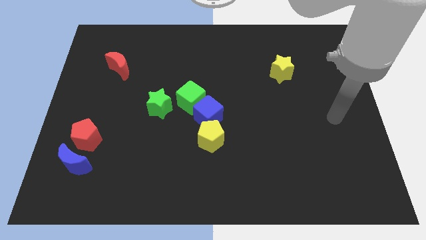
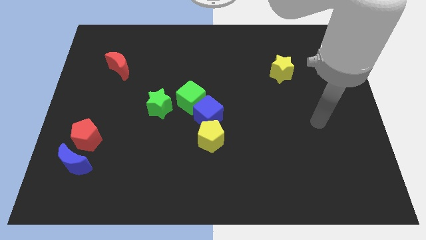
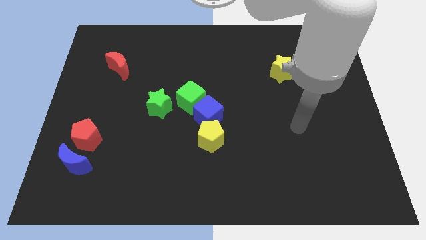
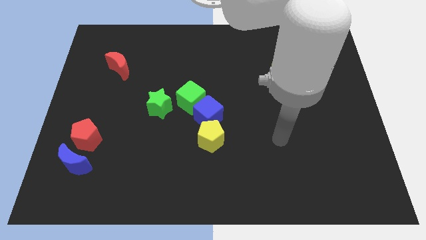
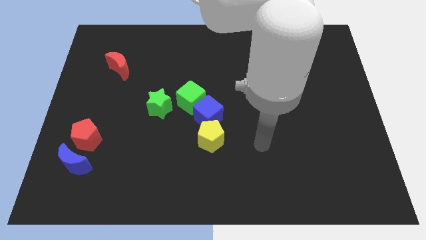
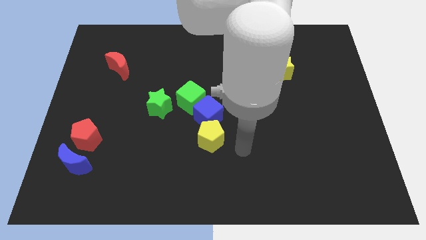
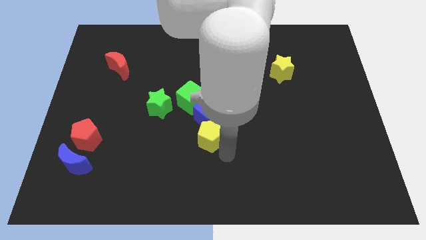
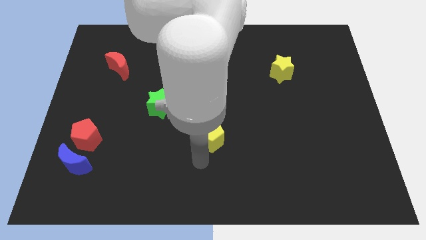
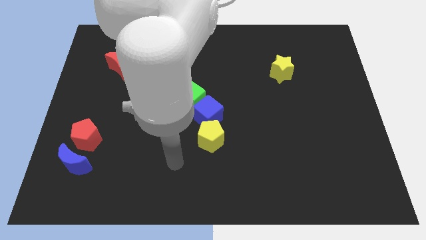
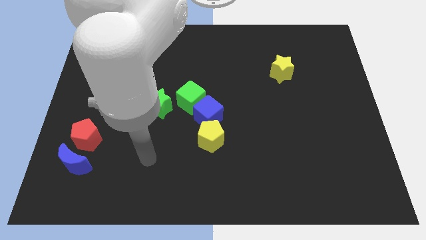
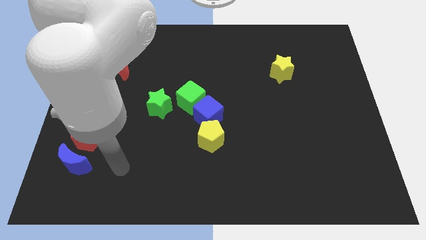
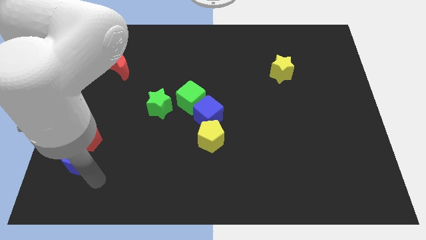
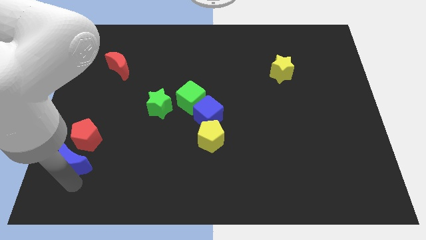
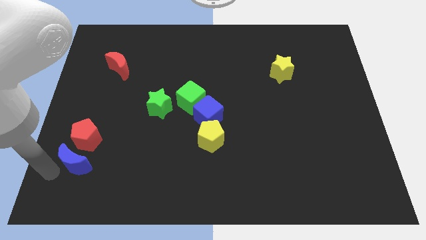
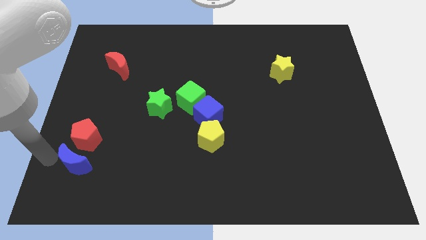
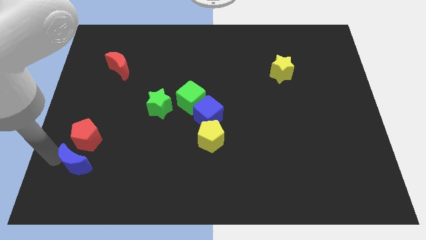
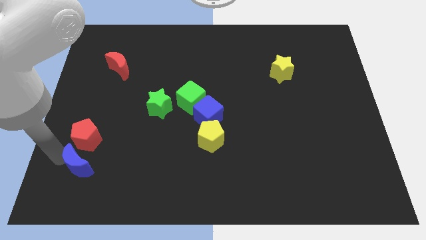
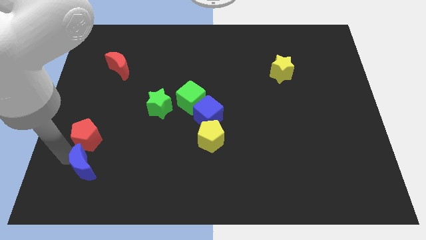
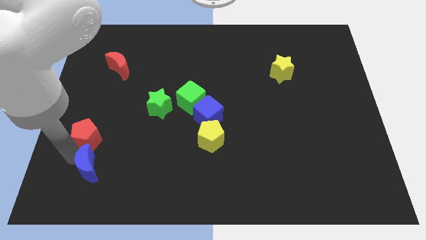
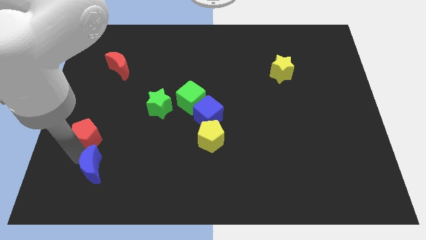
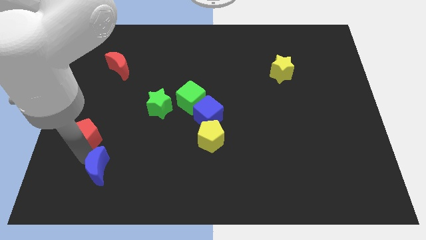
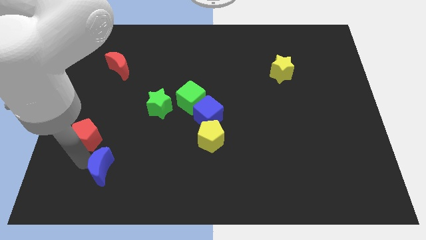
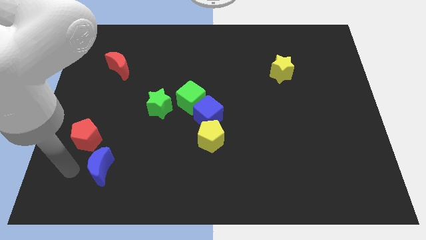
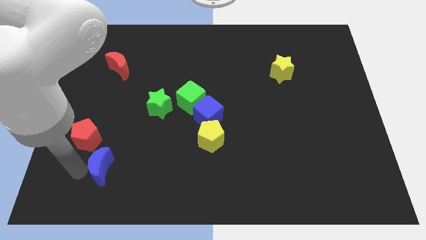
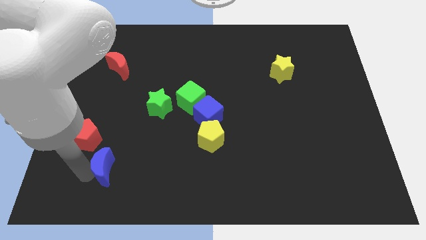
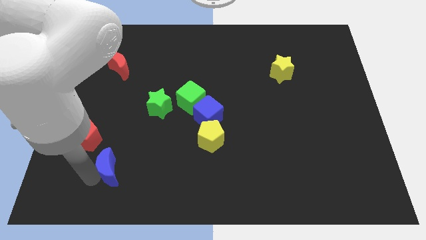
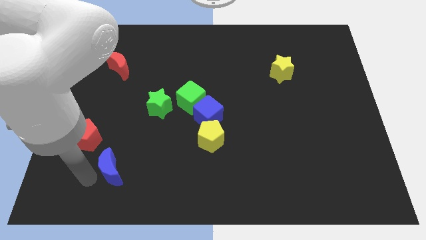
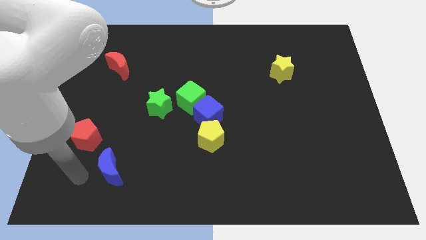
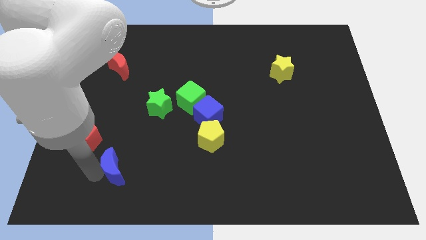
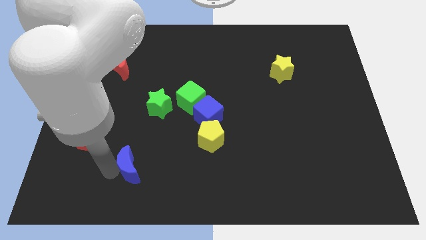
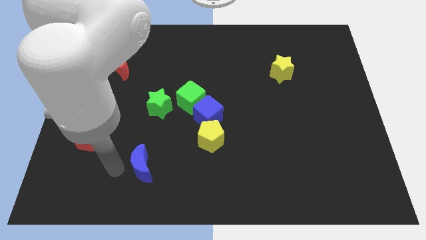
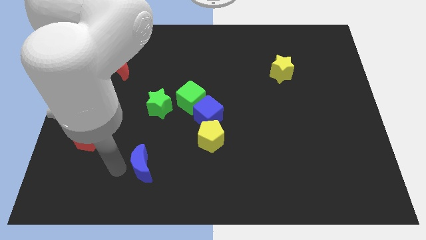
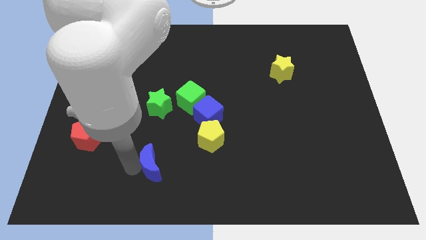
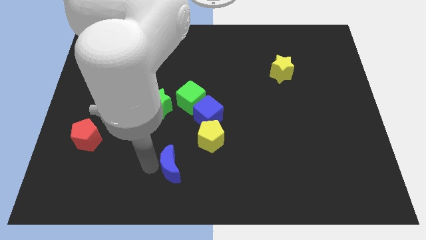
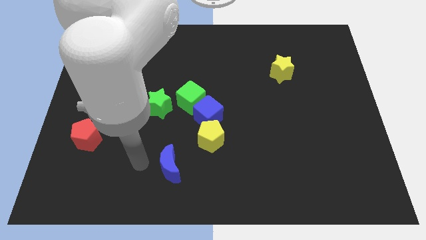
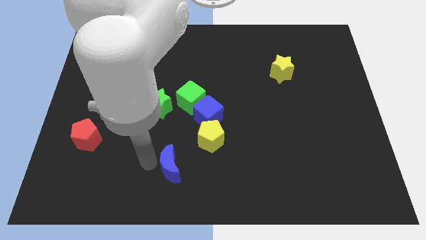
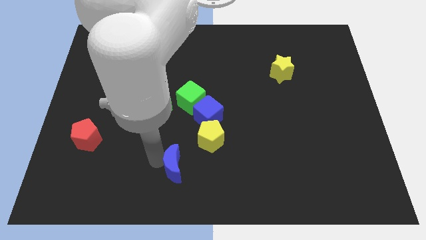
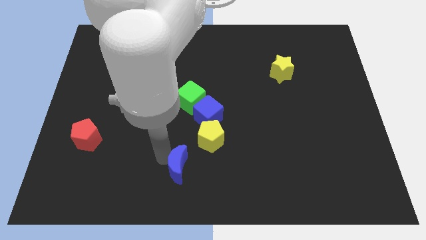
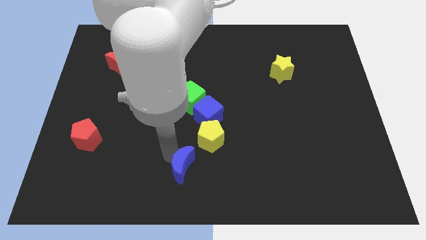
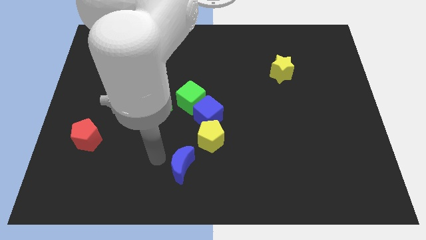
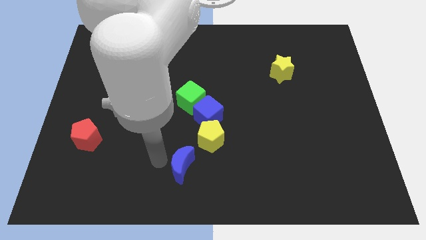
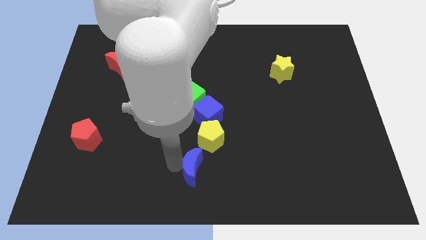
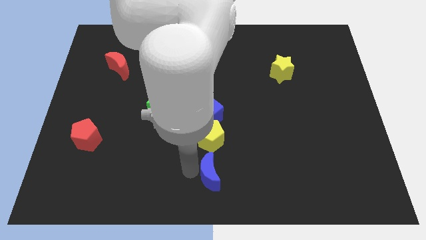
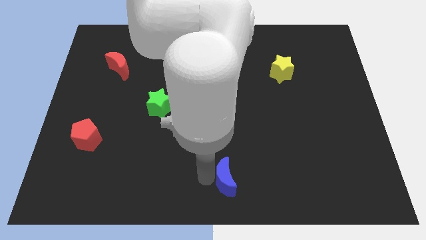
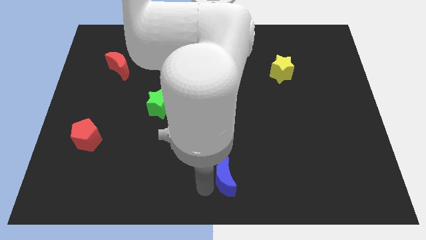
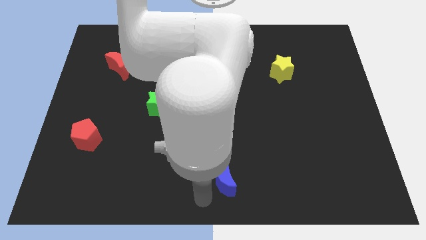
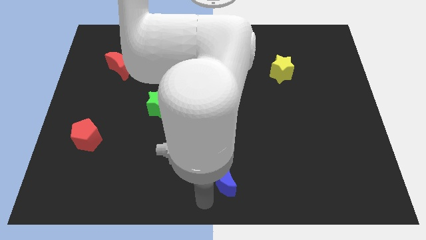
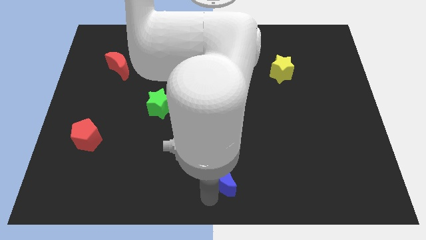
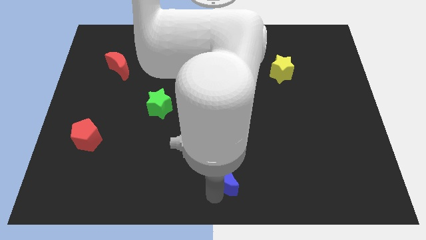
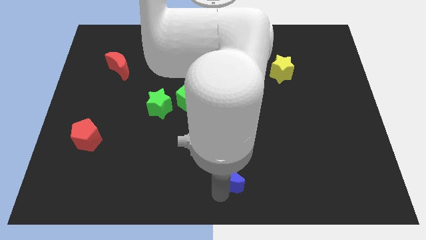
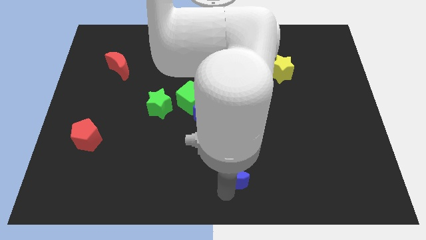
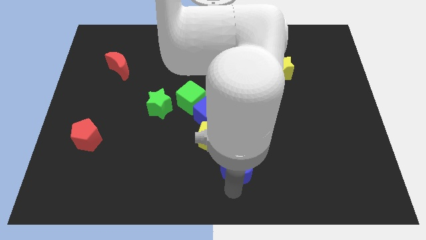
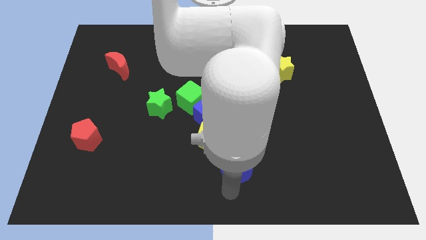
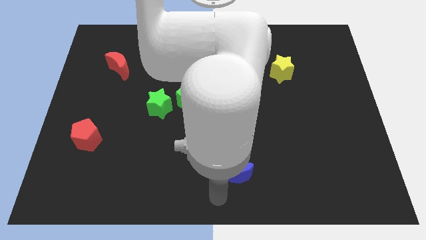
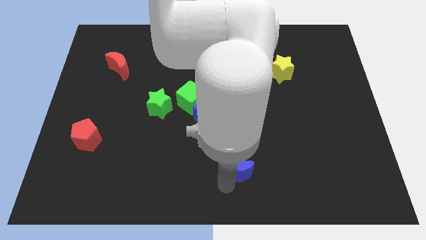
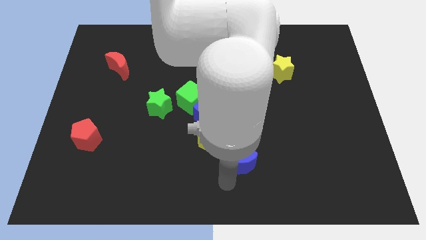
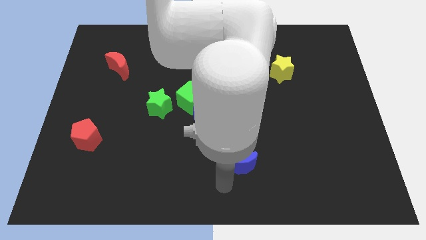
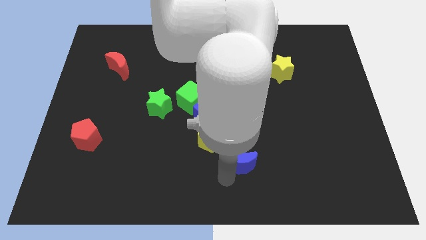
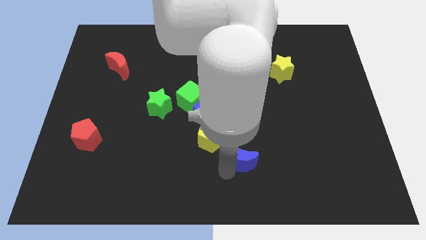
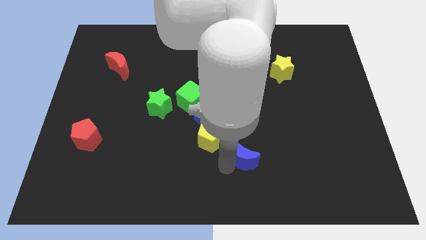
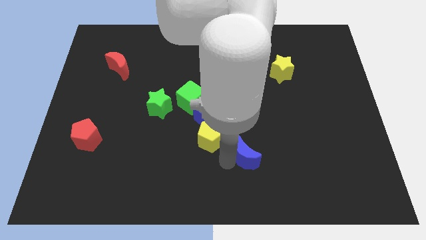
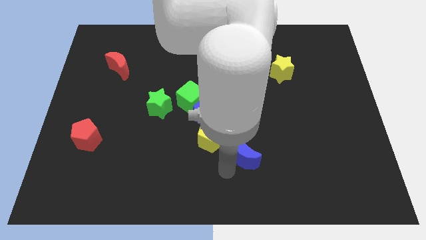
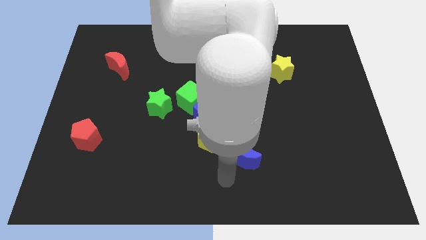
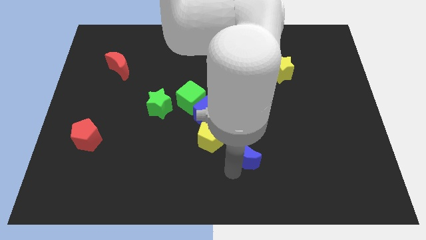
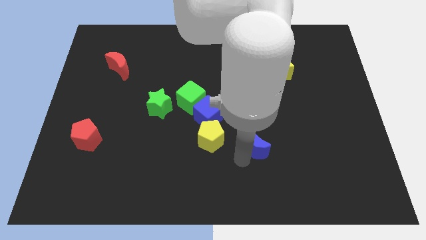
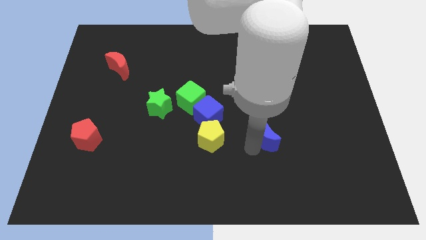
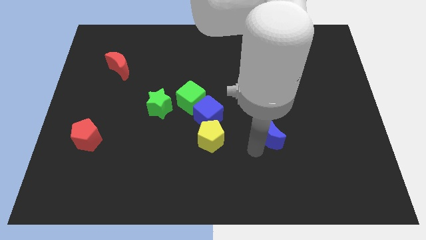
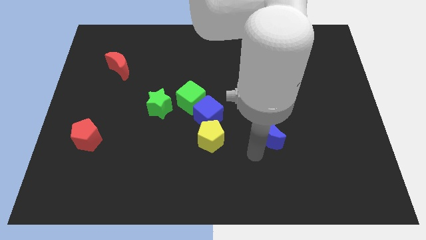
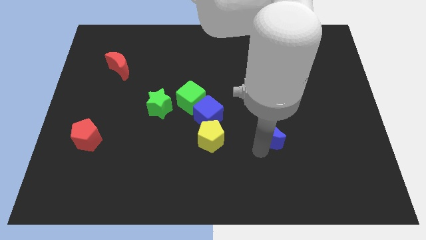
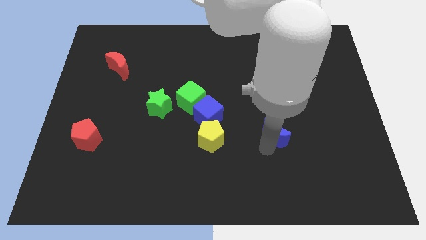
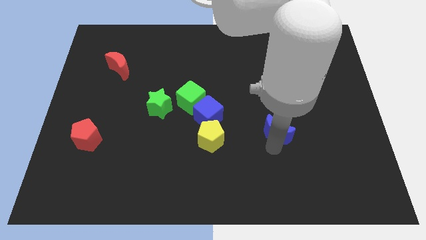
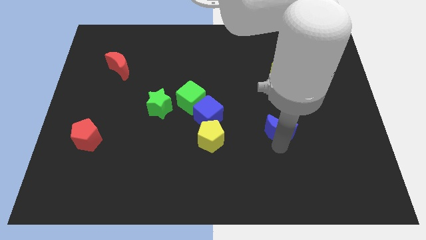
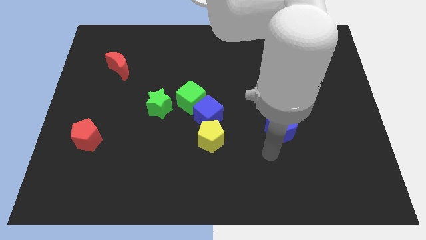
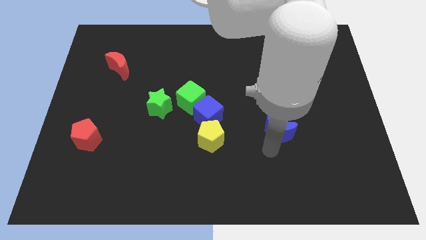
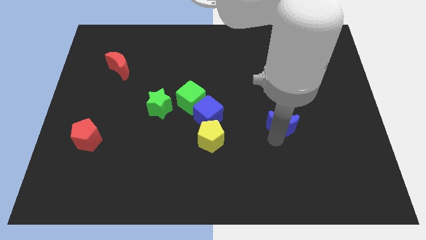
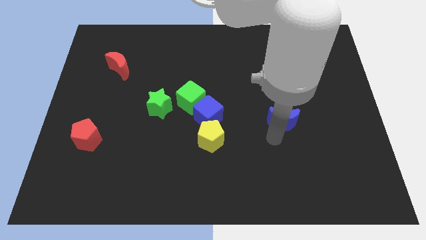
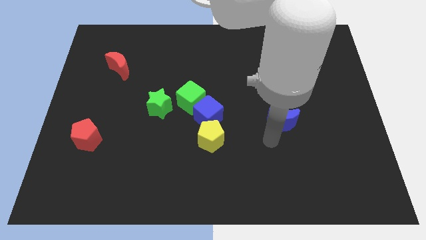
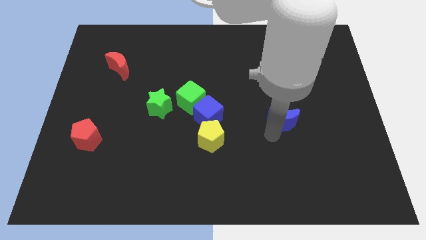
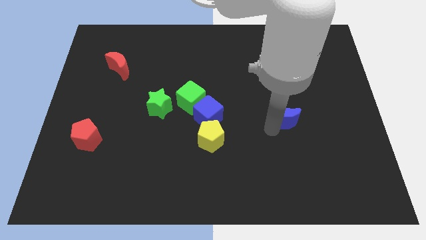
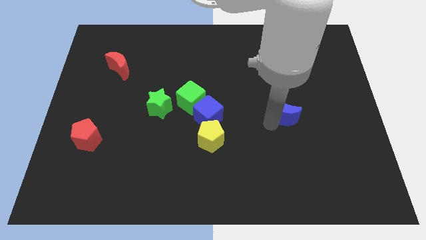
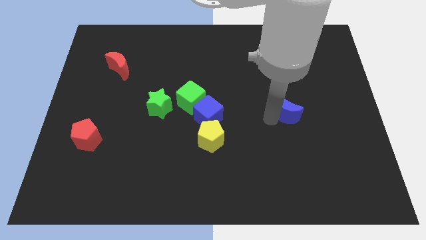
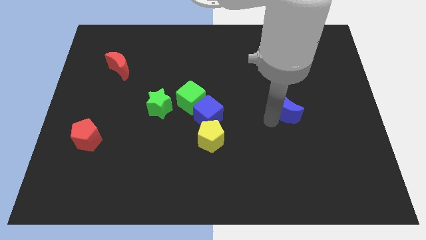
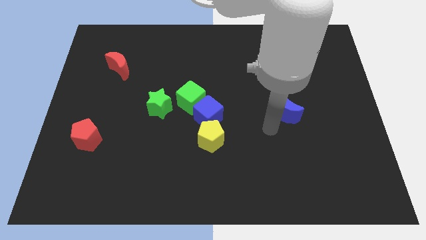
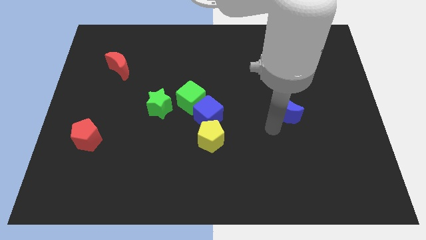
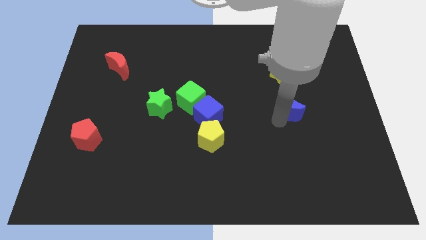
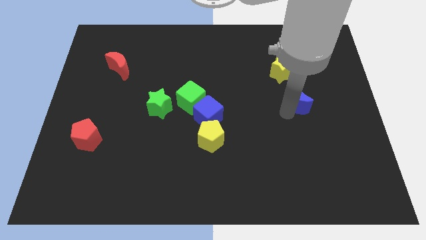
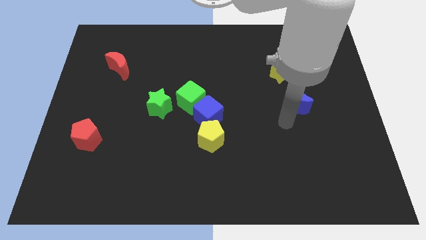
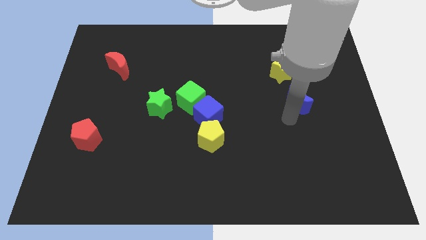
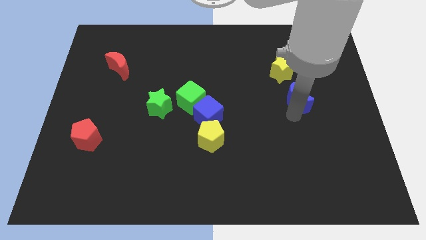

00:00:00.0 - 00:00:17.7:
slide the blue moon to the bottom right of the yellow star
